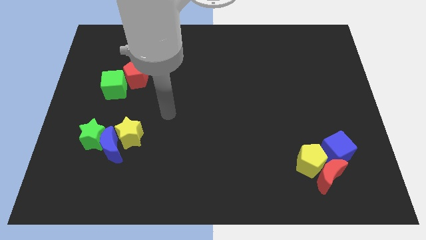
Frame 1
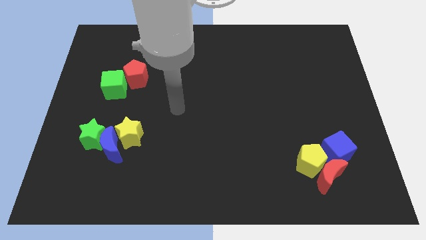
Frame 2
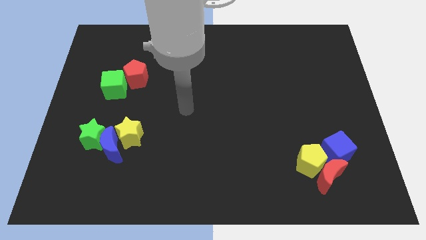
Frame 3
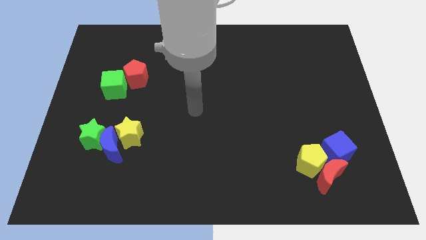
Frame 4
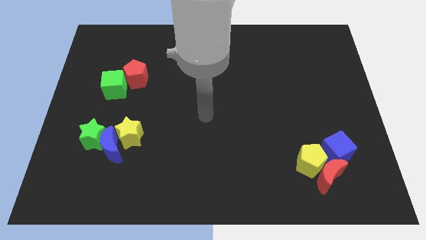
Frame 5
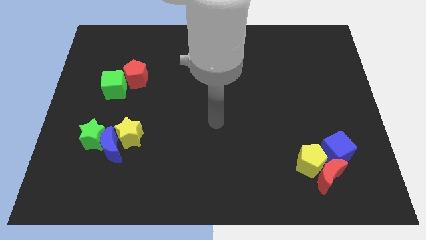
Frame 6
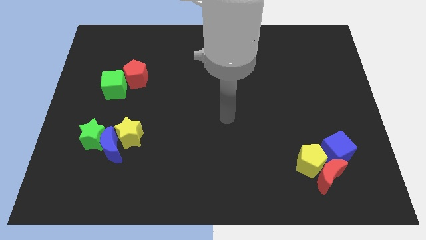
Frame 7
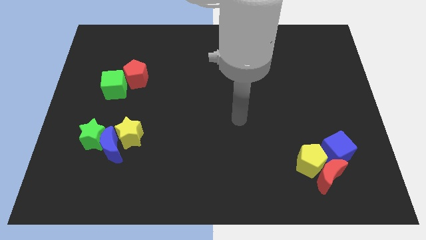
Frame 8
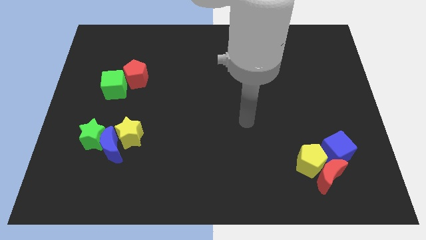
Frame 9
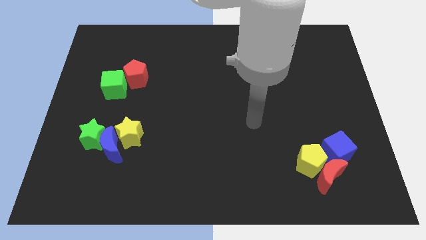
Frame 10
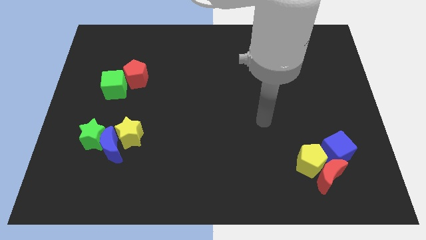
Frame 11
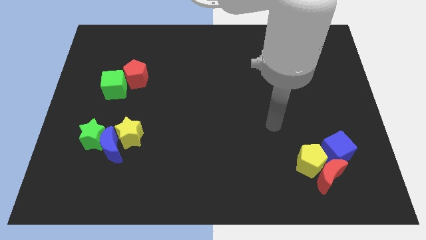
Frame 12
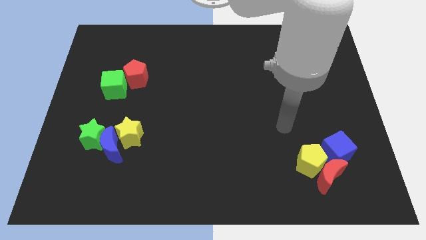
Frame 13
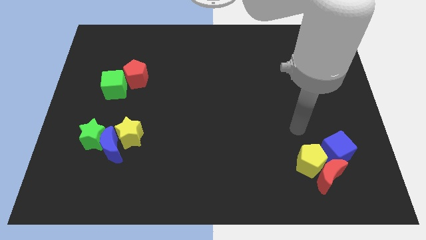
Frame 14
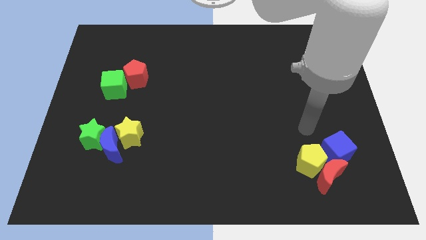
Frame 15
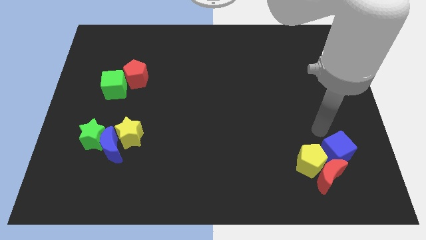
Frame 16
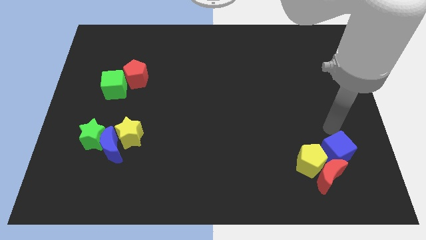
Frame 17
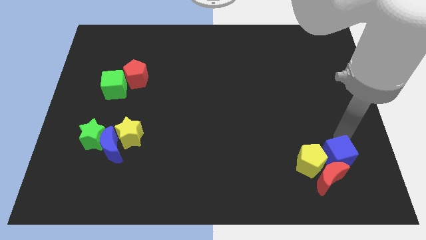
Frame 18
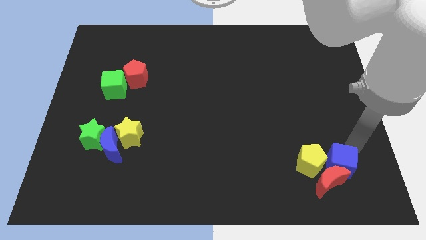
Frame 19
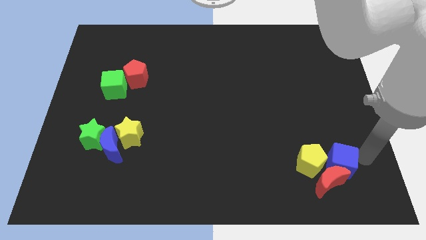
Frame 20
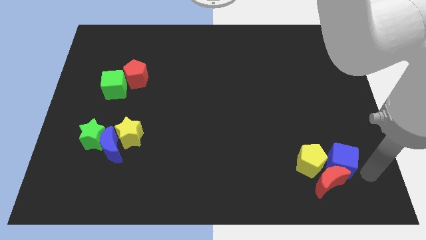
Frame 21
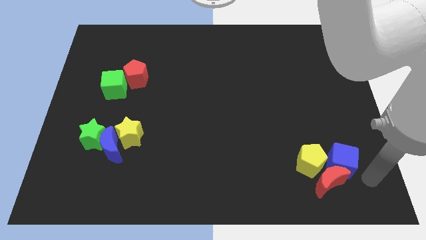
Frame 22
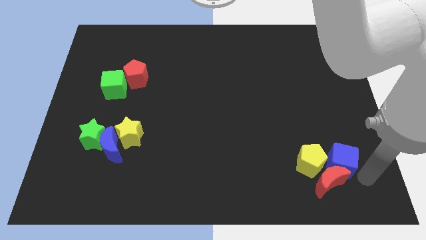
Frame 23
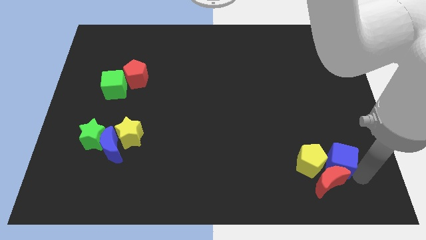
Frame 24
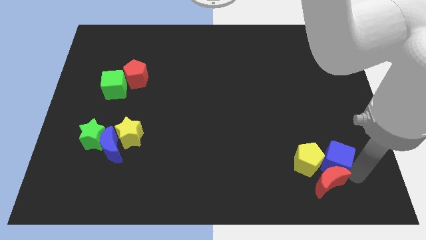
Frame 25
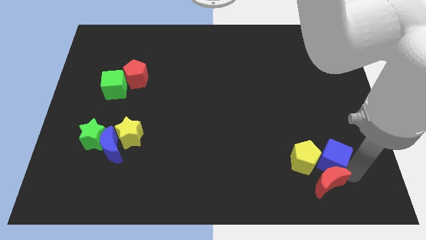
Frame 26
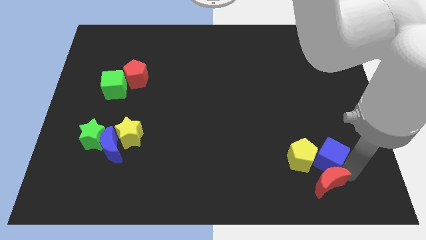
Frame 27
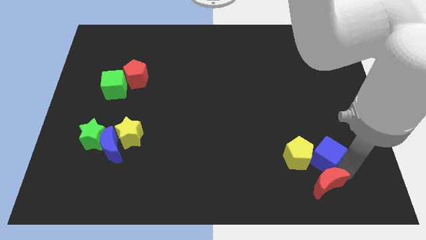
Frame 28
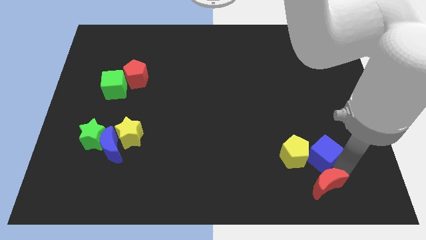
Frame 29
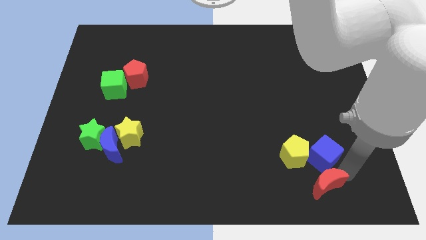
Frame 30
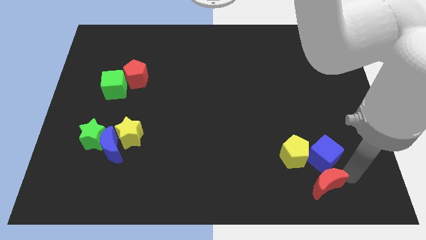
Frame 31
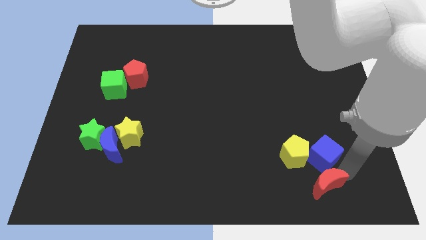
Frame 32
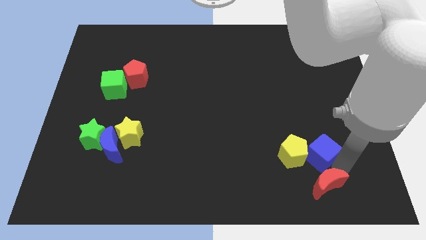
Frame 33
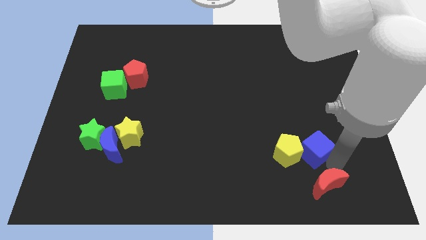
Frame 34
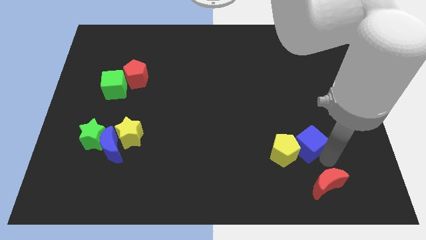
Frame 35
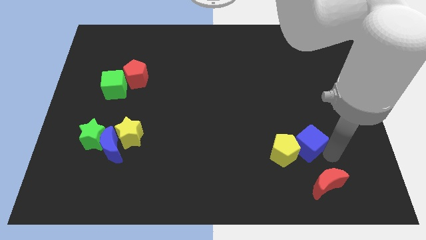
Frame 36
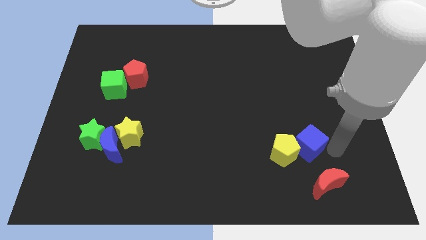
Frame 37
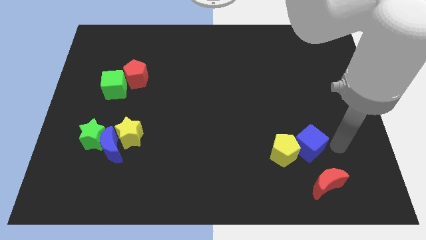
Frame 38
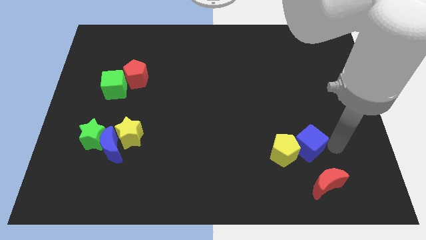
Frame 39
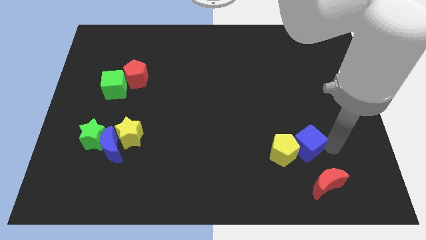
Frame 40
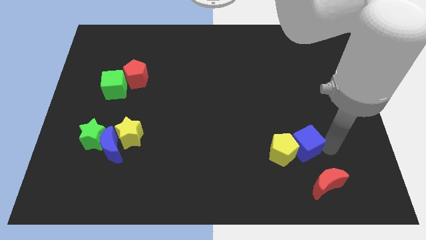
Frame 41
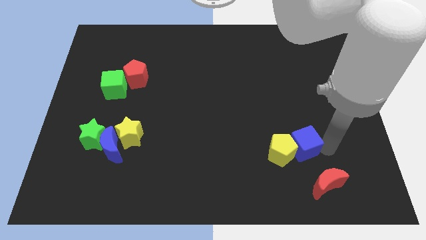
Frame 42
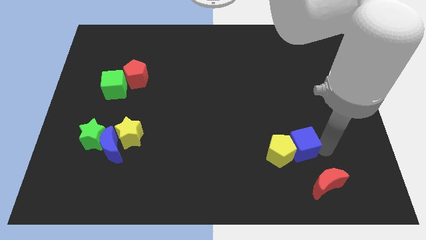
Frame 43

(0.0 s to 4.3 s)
slightly slide the blue cube to the left

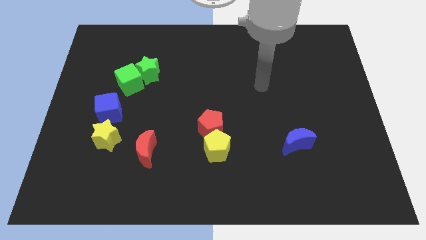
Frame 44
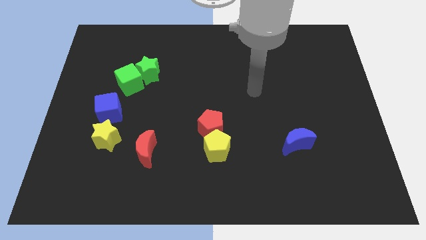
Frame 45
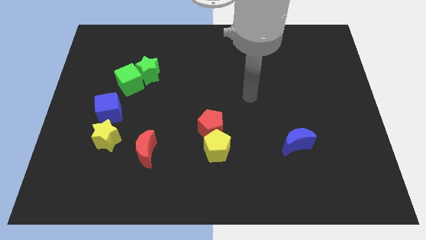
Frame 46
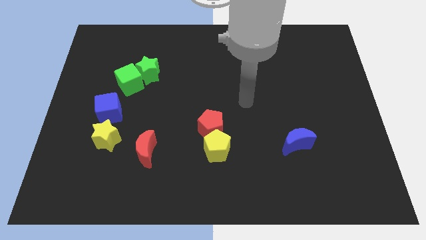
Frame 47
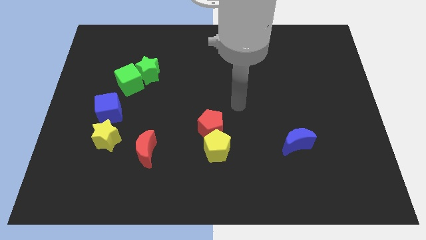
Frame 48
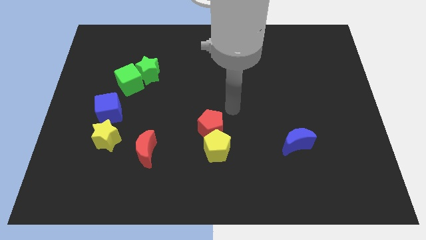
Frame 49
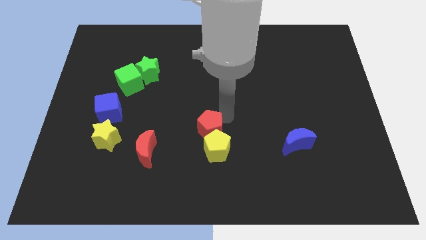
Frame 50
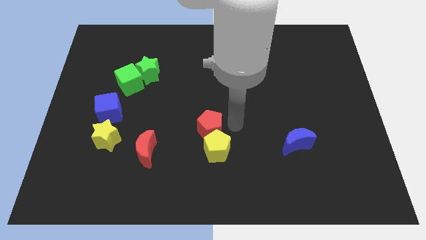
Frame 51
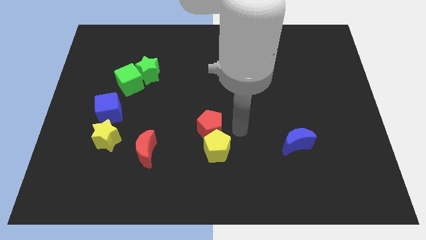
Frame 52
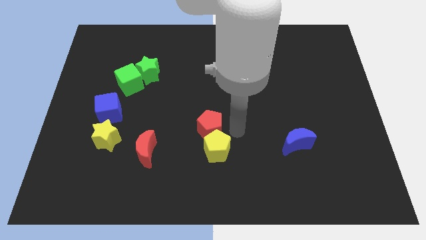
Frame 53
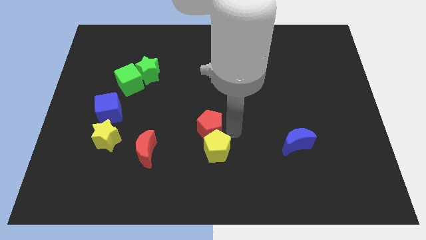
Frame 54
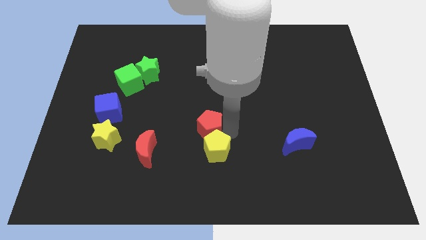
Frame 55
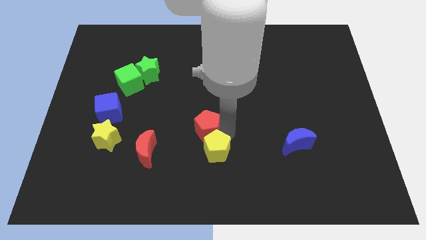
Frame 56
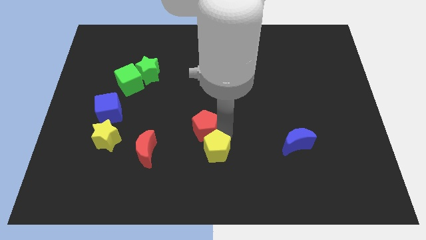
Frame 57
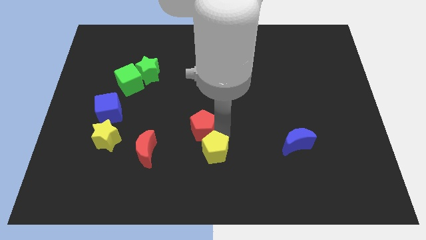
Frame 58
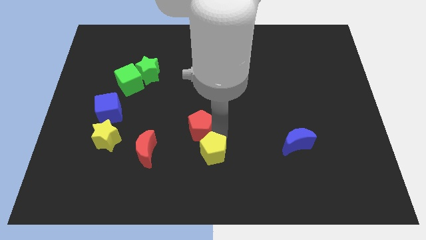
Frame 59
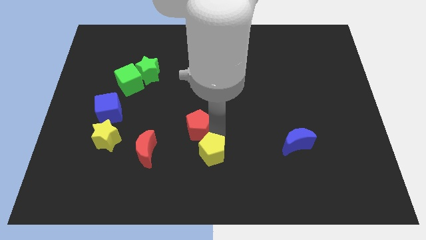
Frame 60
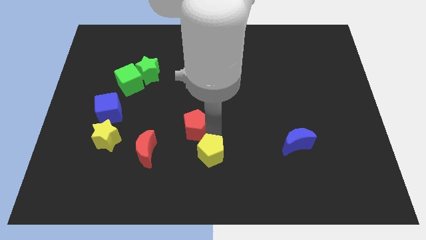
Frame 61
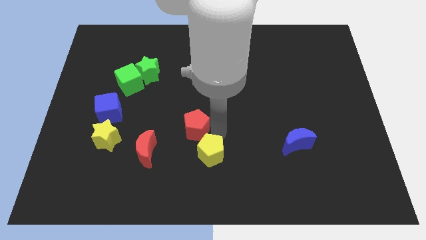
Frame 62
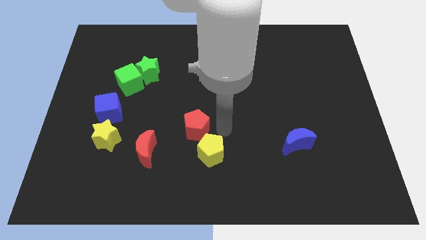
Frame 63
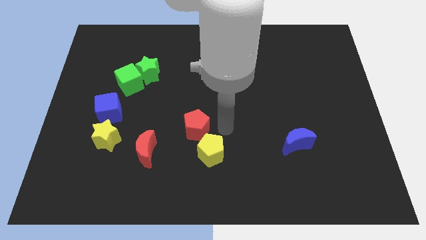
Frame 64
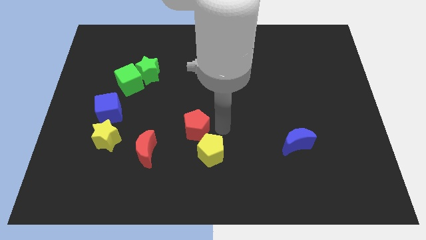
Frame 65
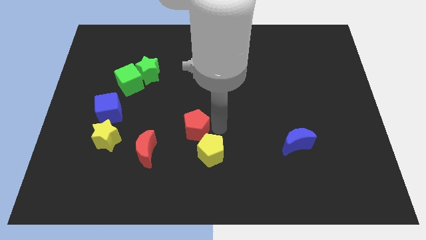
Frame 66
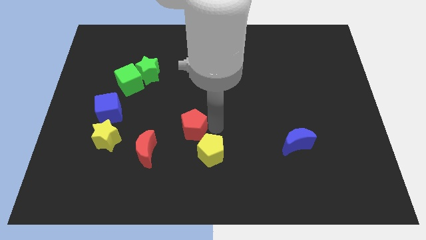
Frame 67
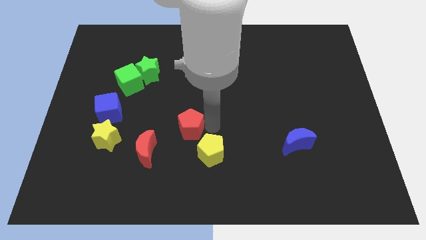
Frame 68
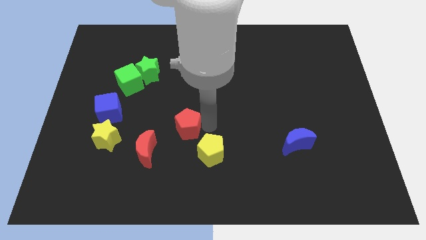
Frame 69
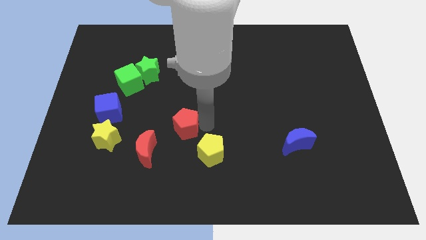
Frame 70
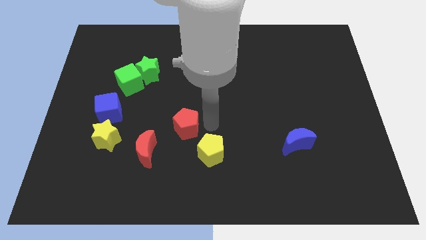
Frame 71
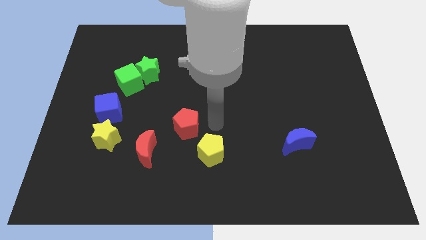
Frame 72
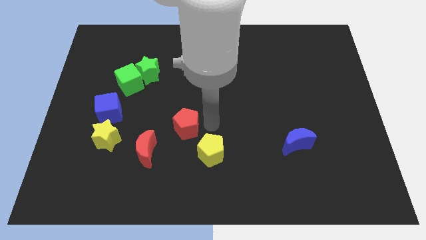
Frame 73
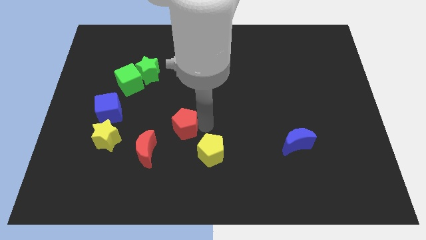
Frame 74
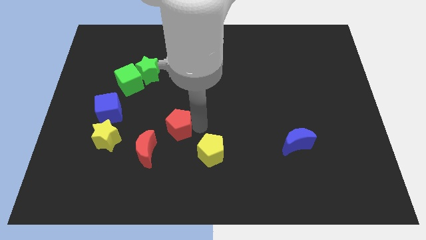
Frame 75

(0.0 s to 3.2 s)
move the red pentagon somewhat left

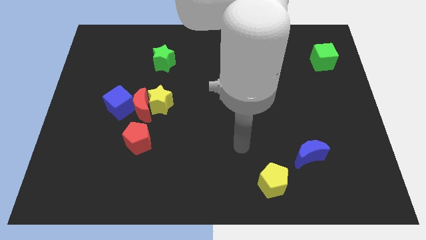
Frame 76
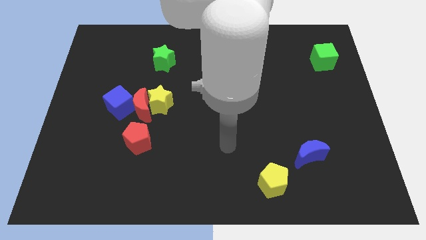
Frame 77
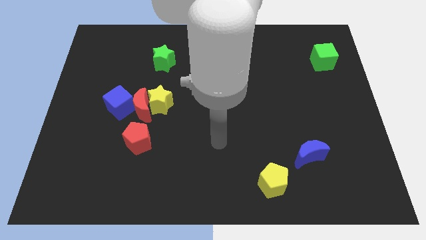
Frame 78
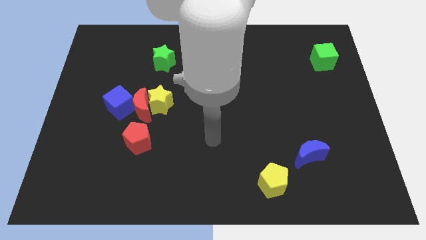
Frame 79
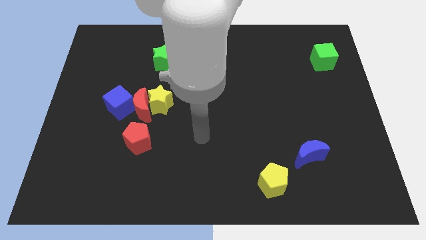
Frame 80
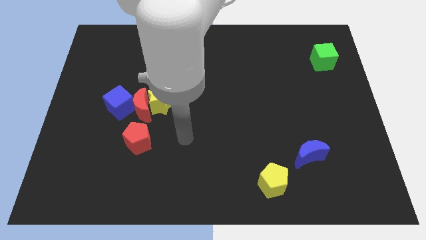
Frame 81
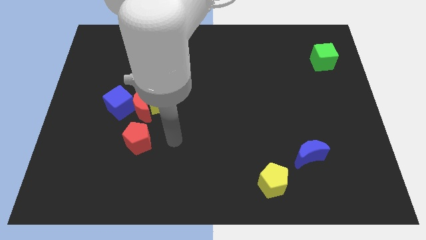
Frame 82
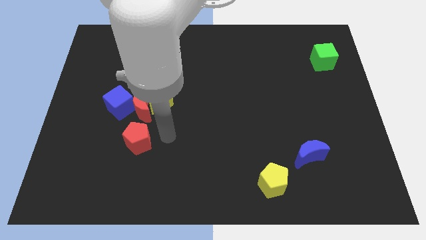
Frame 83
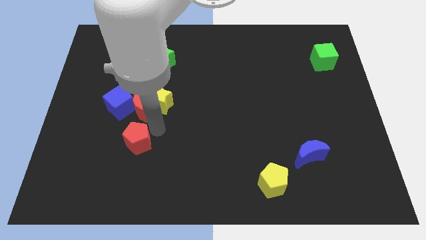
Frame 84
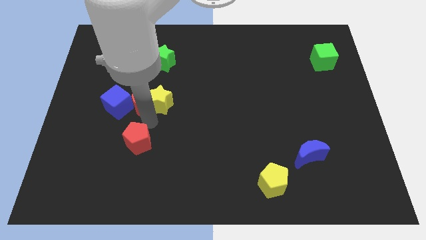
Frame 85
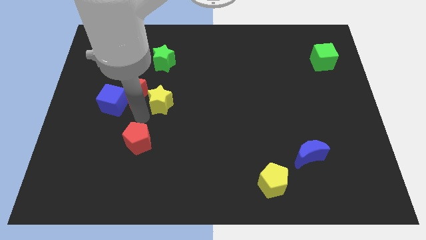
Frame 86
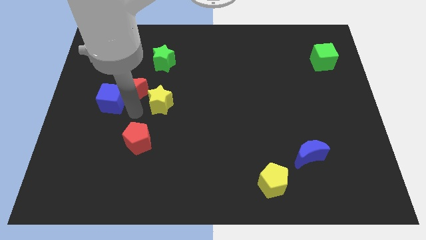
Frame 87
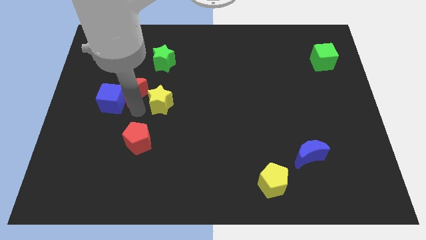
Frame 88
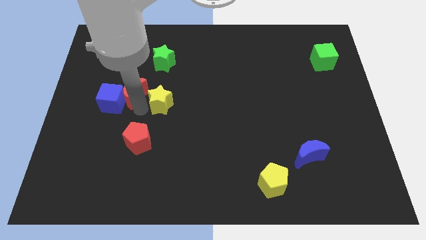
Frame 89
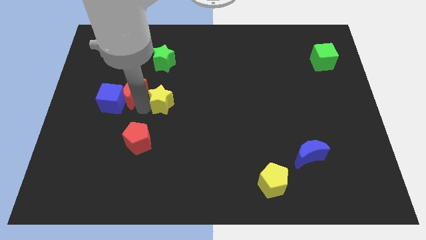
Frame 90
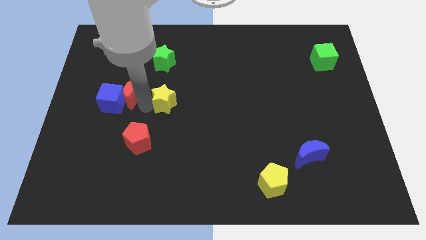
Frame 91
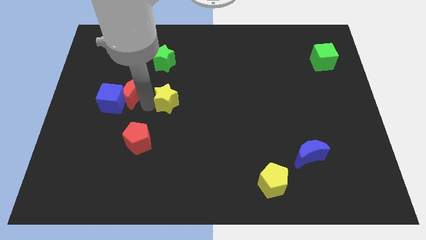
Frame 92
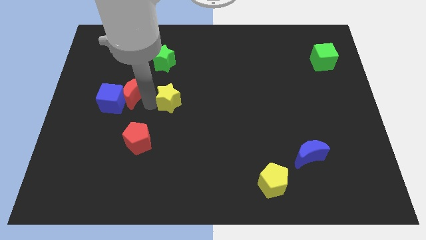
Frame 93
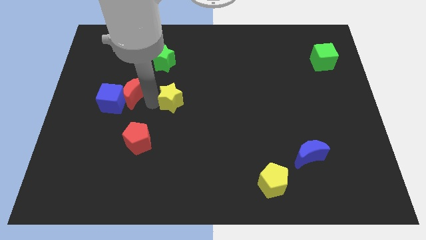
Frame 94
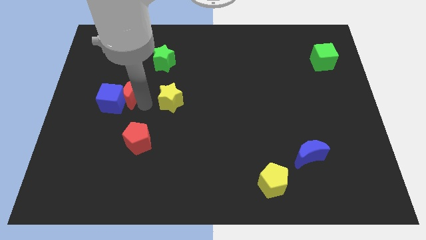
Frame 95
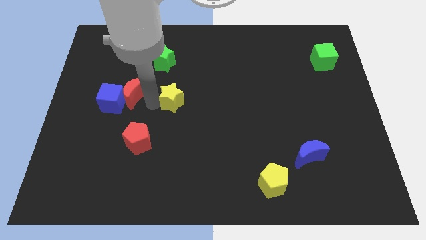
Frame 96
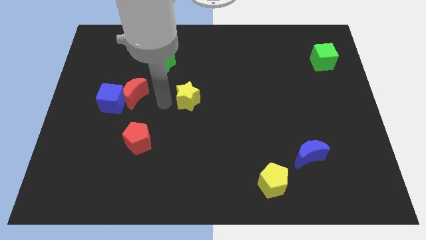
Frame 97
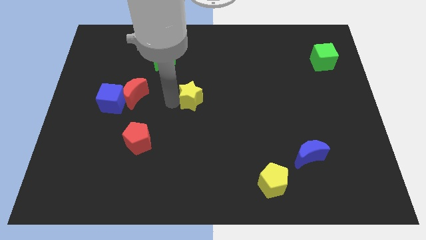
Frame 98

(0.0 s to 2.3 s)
move the yellow star right slightly
